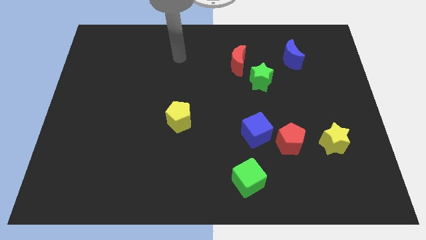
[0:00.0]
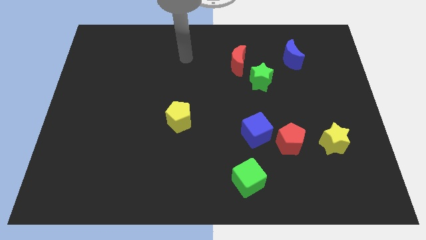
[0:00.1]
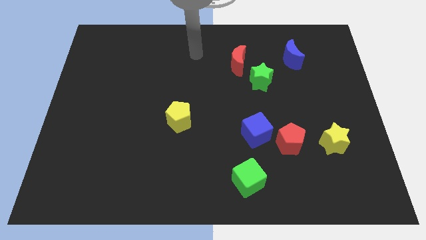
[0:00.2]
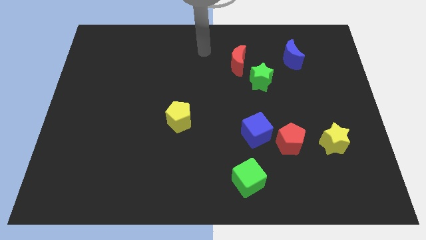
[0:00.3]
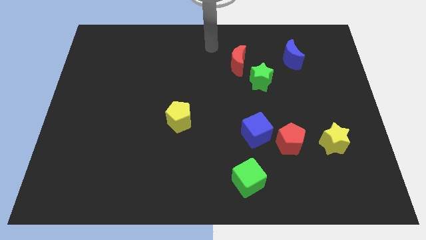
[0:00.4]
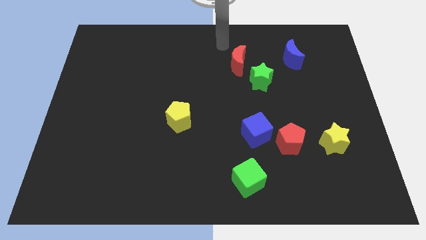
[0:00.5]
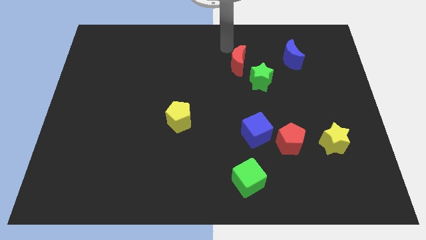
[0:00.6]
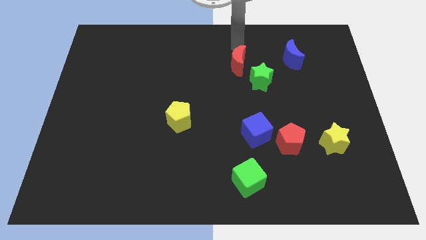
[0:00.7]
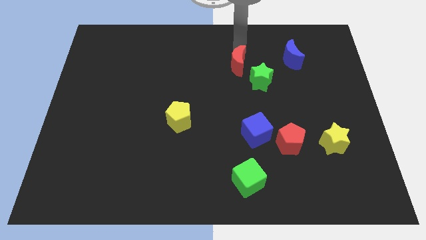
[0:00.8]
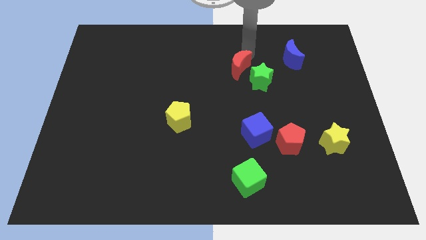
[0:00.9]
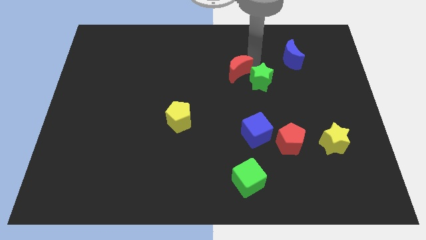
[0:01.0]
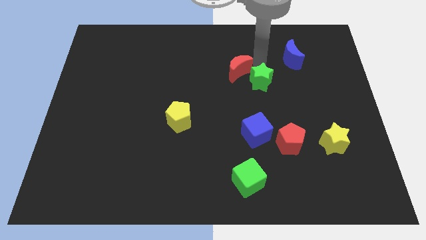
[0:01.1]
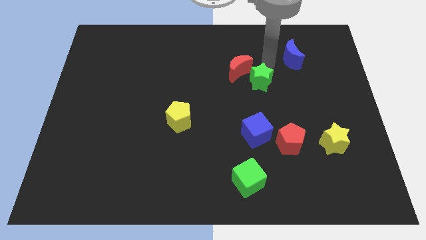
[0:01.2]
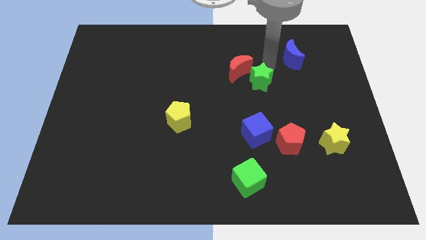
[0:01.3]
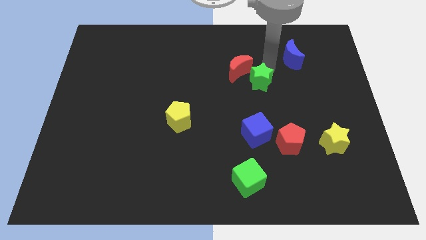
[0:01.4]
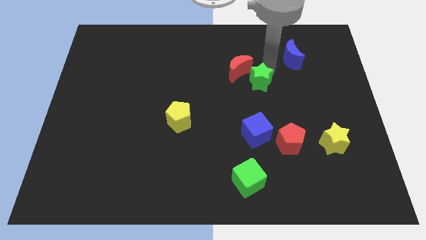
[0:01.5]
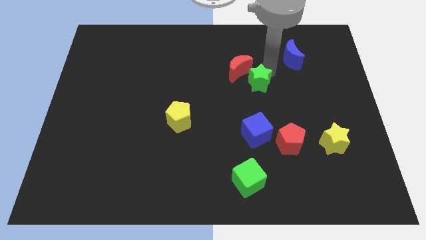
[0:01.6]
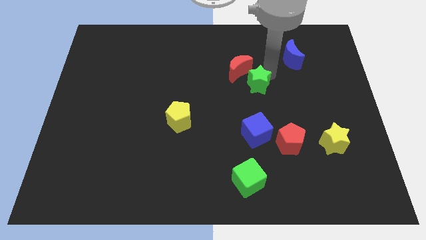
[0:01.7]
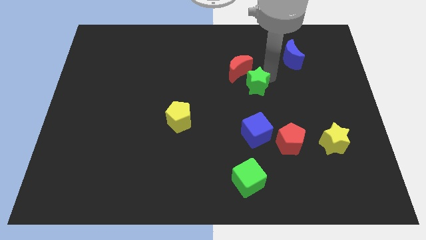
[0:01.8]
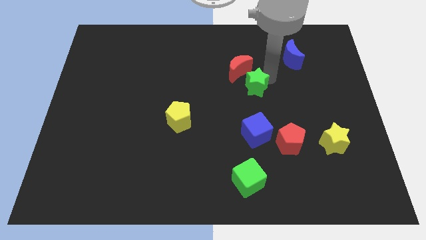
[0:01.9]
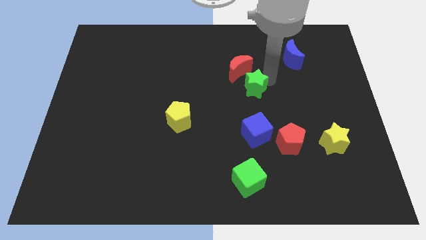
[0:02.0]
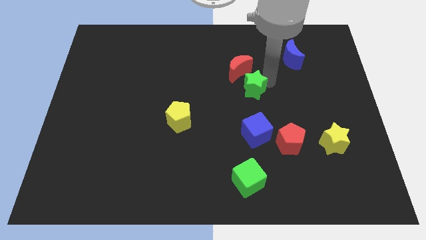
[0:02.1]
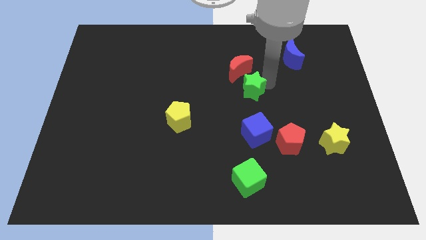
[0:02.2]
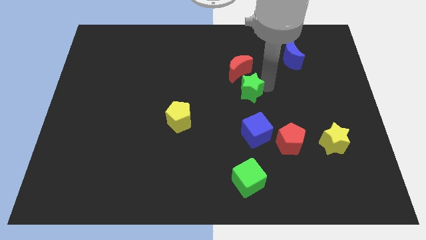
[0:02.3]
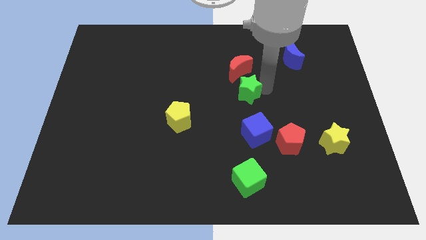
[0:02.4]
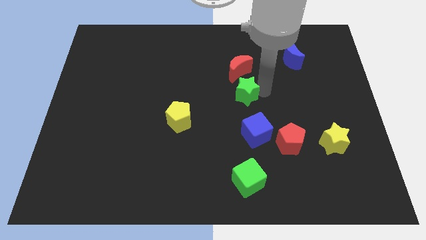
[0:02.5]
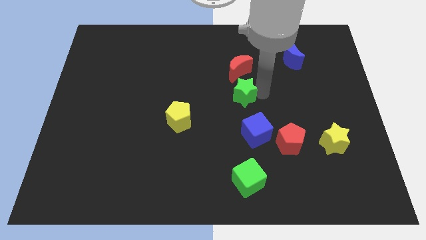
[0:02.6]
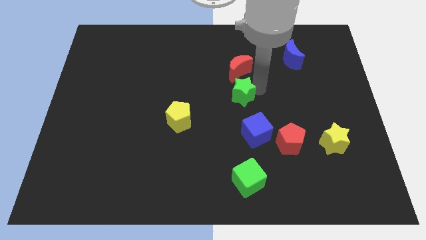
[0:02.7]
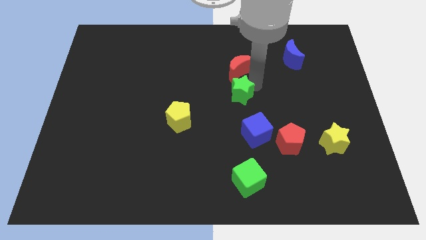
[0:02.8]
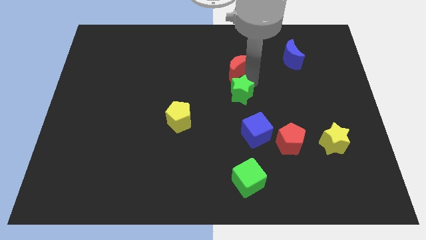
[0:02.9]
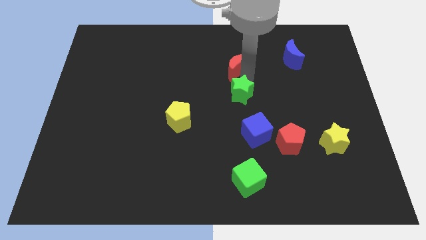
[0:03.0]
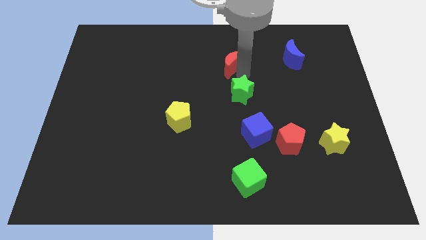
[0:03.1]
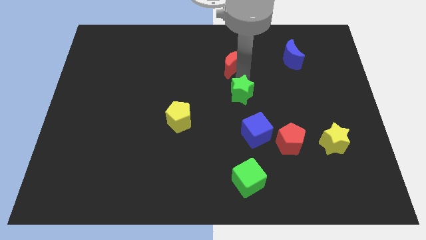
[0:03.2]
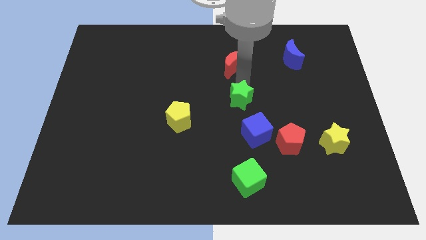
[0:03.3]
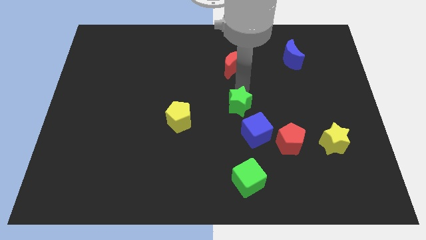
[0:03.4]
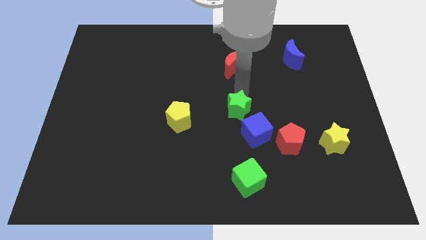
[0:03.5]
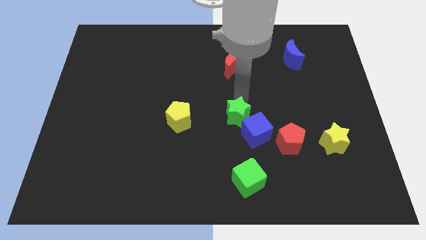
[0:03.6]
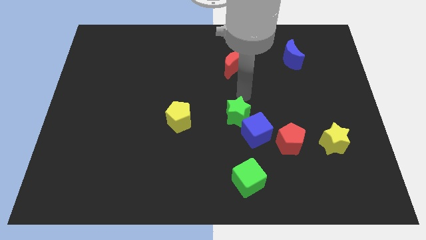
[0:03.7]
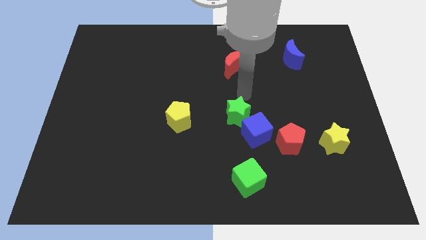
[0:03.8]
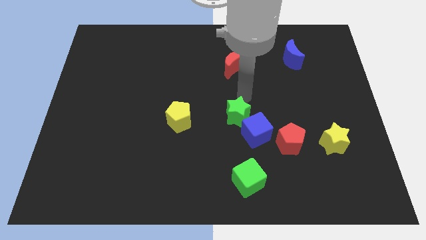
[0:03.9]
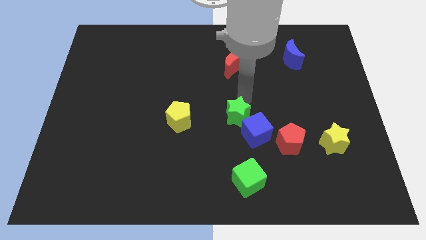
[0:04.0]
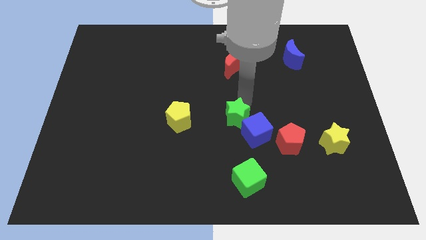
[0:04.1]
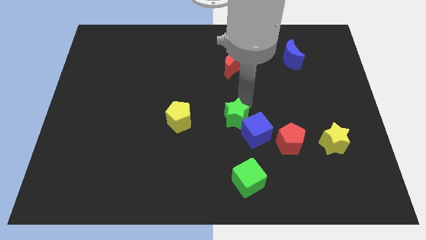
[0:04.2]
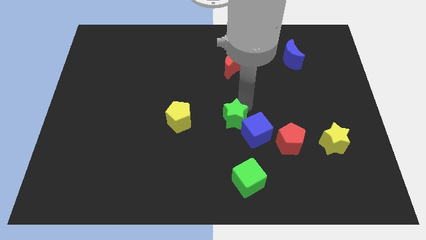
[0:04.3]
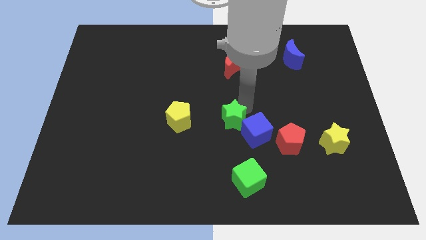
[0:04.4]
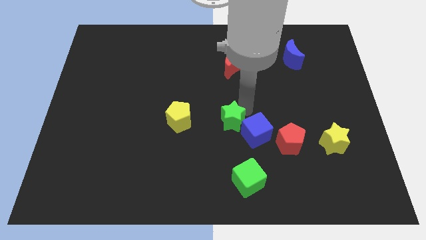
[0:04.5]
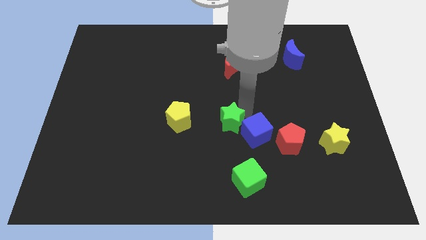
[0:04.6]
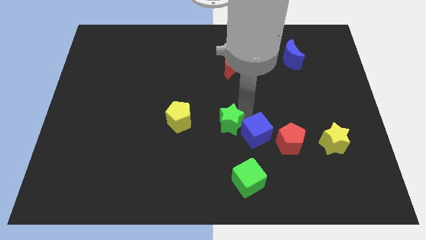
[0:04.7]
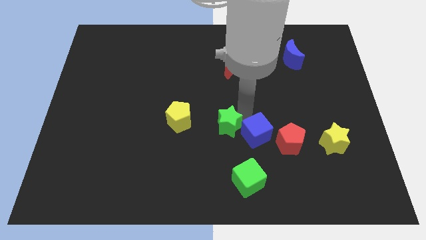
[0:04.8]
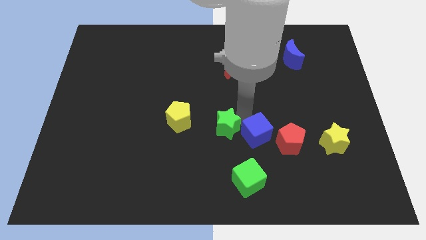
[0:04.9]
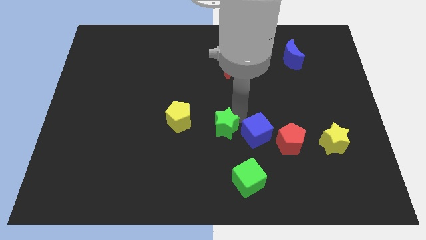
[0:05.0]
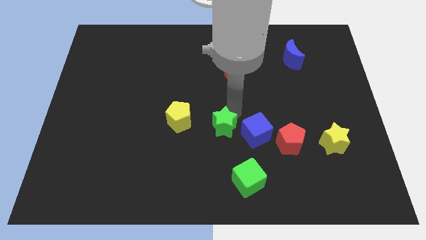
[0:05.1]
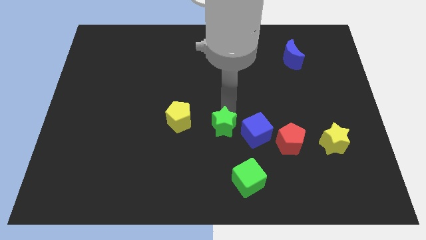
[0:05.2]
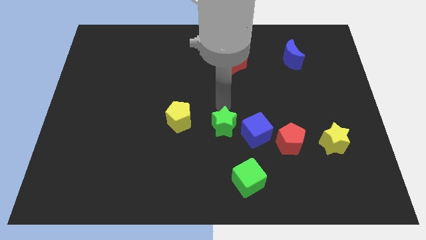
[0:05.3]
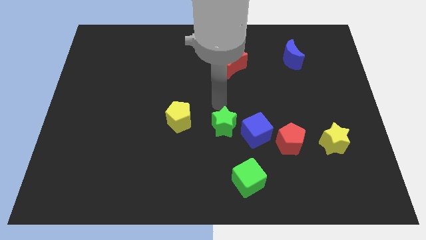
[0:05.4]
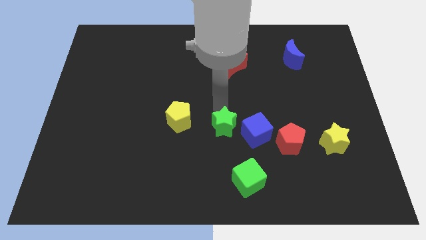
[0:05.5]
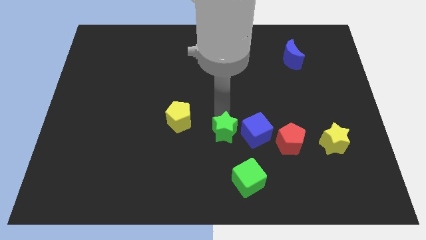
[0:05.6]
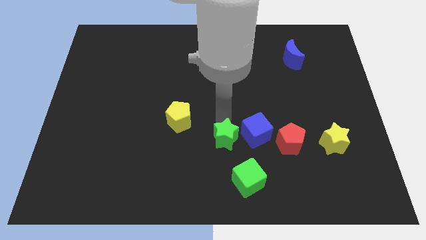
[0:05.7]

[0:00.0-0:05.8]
put the green star to the bottom left of the blue cube

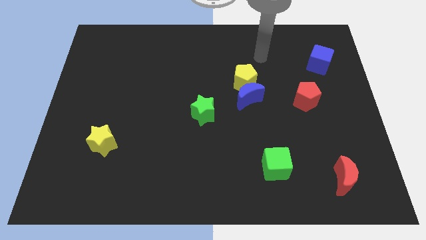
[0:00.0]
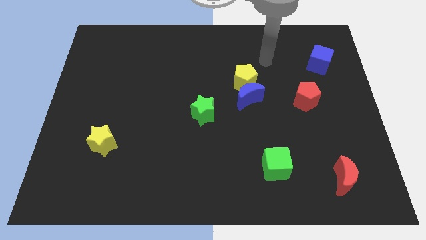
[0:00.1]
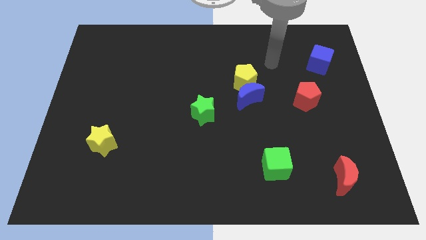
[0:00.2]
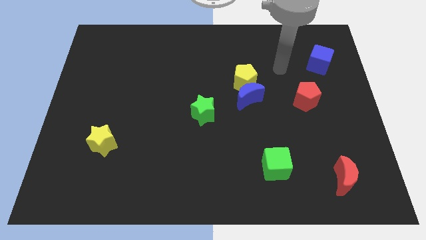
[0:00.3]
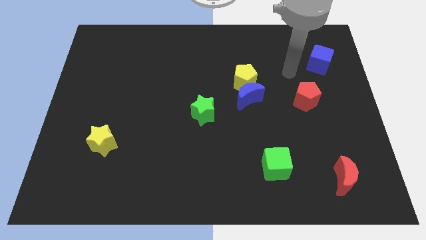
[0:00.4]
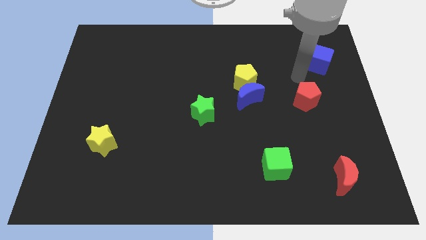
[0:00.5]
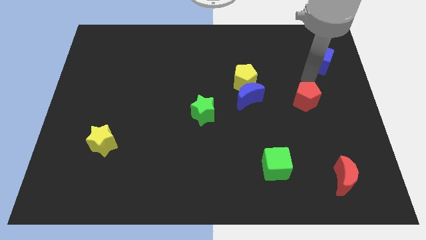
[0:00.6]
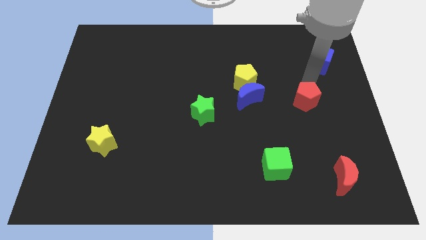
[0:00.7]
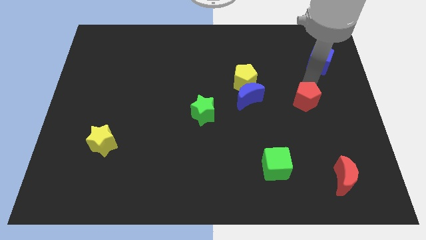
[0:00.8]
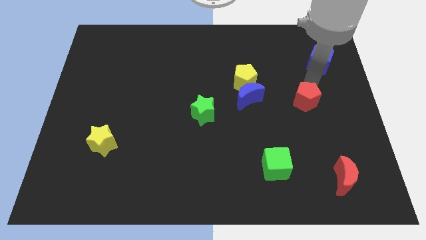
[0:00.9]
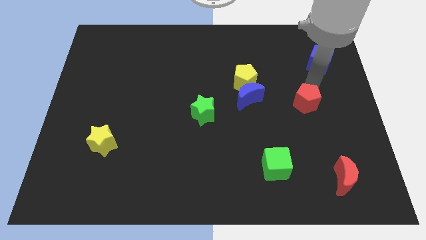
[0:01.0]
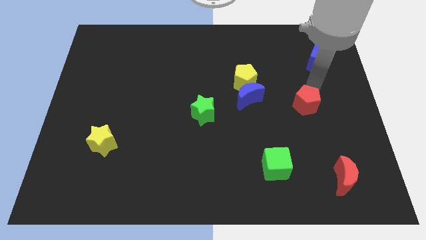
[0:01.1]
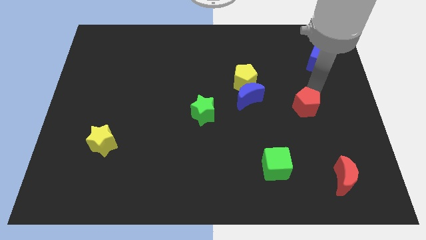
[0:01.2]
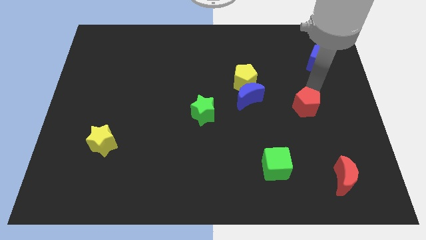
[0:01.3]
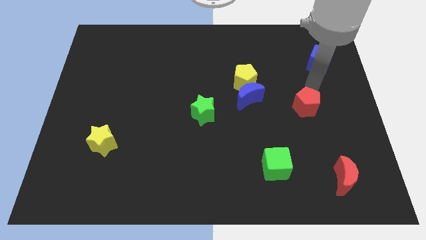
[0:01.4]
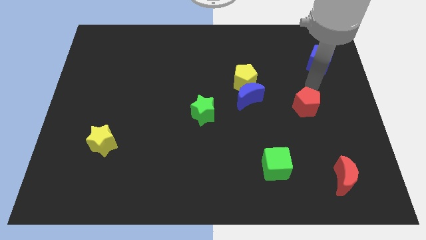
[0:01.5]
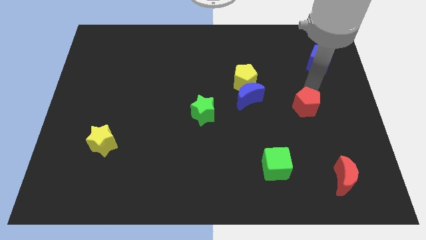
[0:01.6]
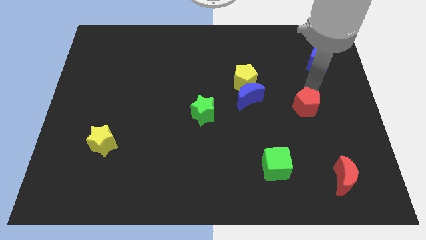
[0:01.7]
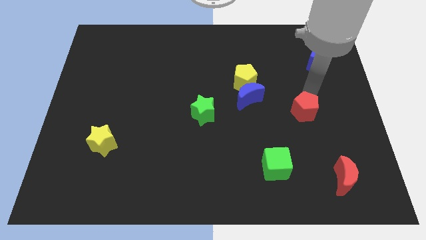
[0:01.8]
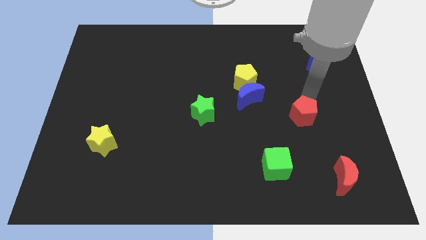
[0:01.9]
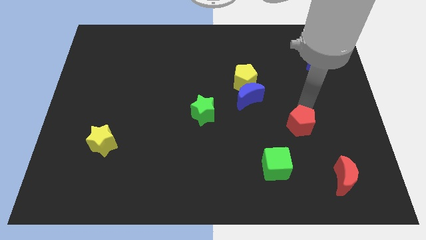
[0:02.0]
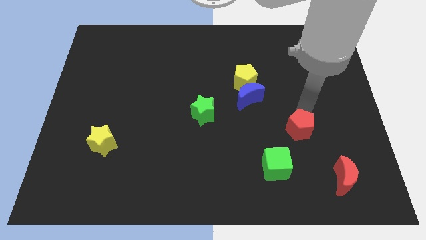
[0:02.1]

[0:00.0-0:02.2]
push the red pentagon diagonally up and to the right of the green cube

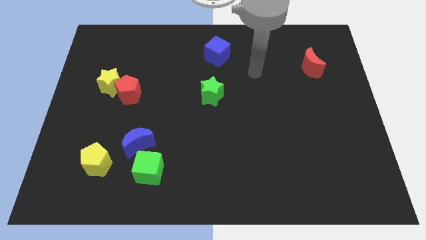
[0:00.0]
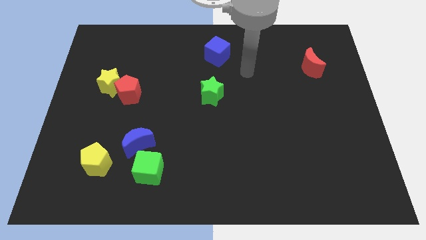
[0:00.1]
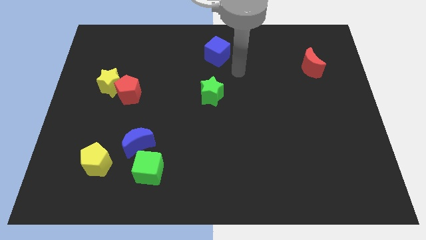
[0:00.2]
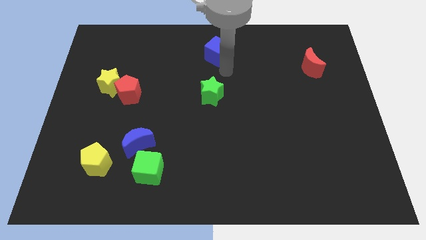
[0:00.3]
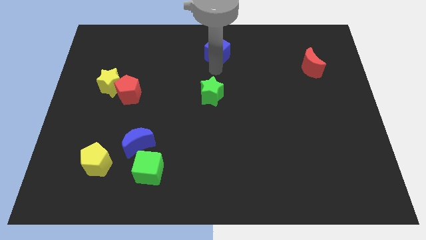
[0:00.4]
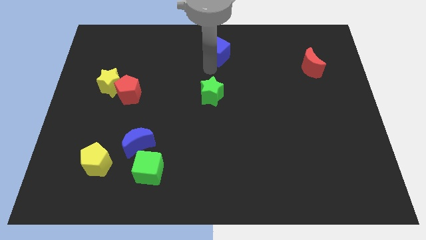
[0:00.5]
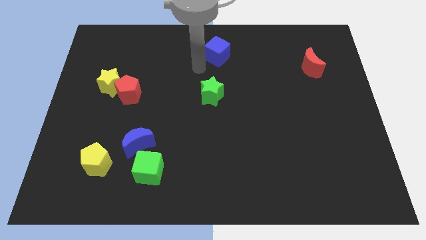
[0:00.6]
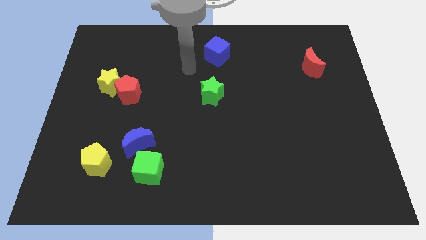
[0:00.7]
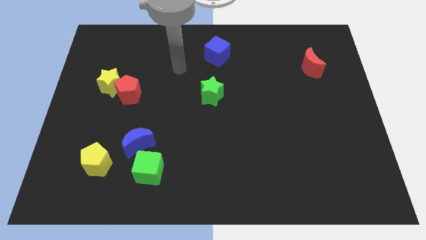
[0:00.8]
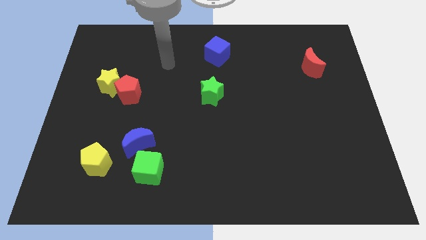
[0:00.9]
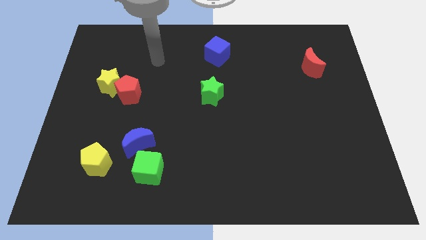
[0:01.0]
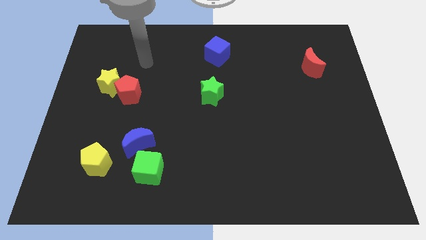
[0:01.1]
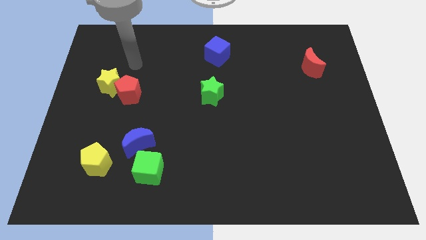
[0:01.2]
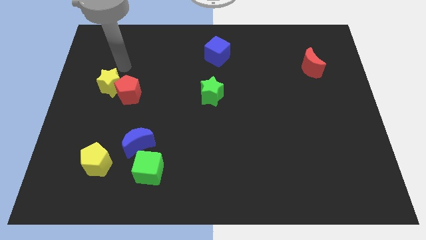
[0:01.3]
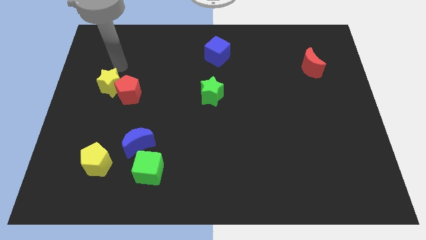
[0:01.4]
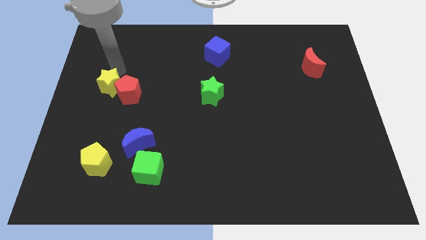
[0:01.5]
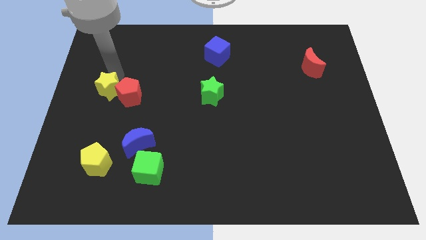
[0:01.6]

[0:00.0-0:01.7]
slide the yellow star to the bottom left of the red pentagon
